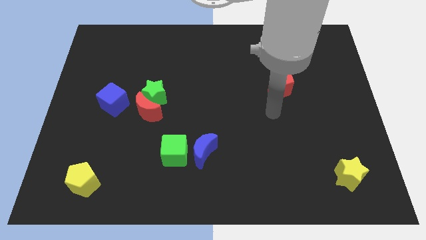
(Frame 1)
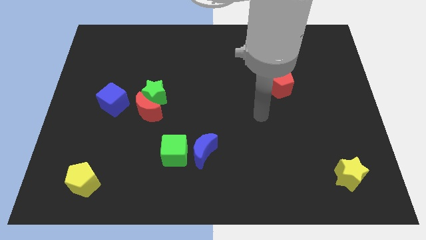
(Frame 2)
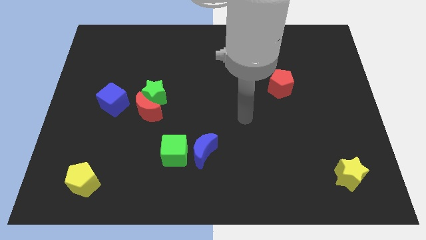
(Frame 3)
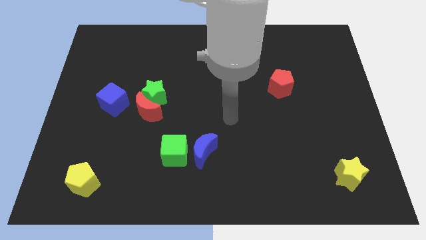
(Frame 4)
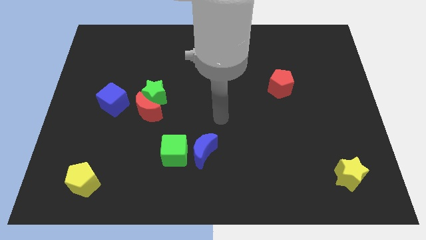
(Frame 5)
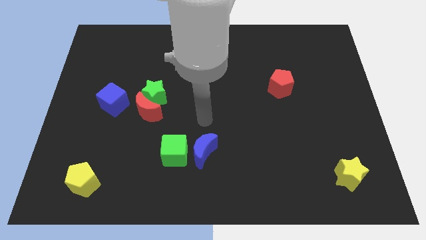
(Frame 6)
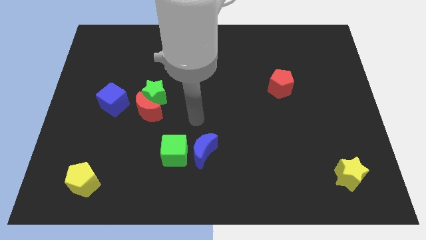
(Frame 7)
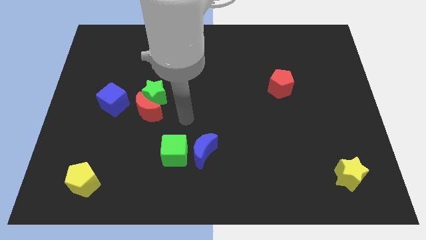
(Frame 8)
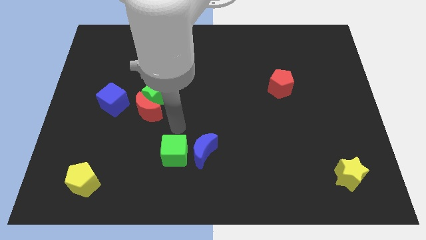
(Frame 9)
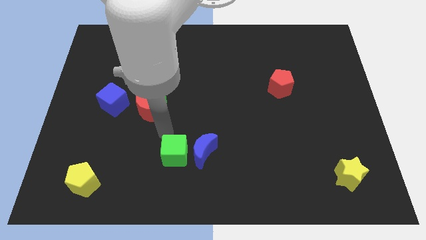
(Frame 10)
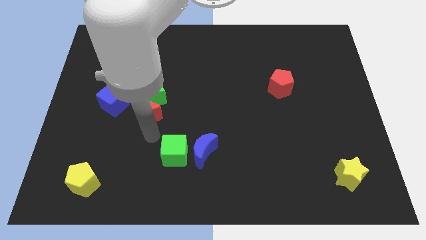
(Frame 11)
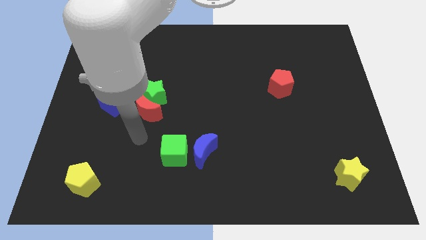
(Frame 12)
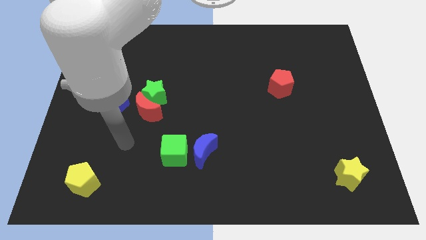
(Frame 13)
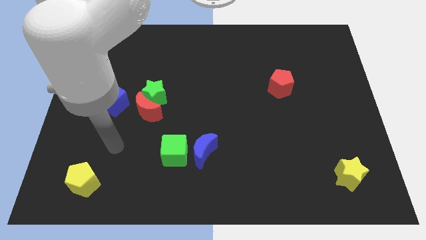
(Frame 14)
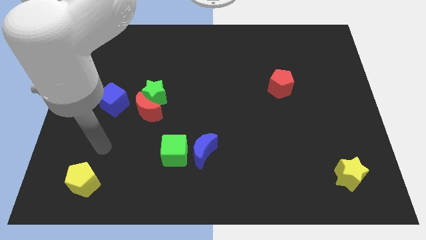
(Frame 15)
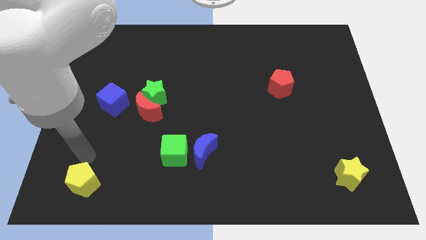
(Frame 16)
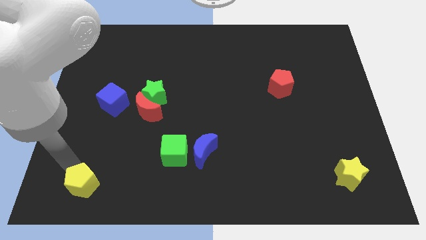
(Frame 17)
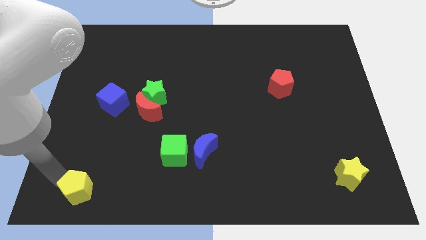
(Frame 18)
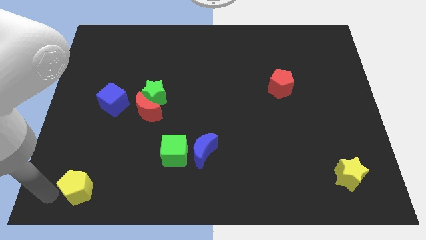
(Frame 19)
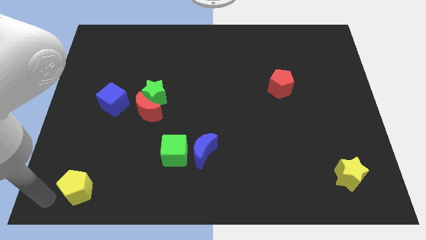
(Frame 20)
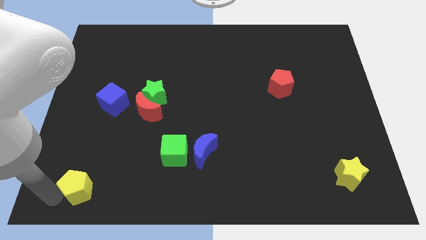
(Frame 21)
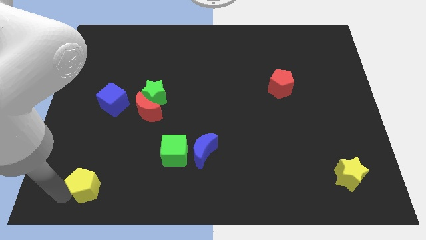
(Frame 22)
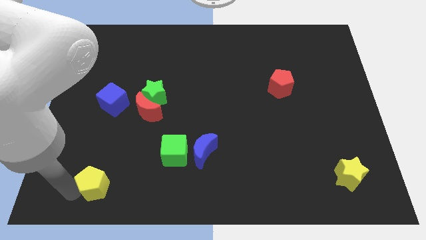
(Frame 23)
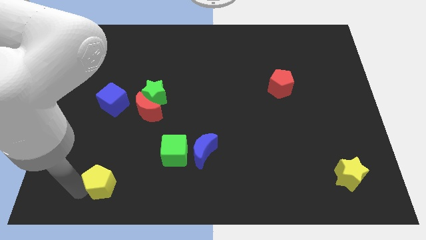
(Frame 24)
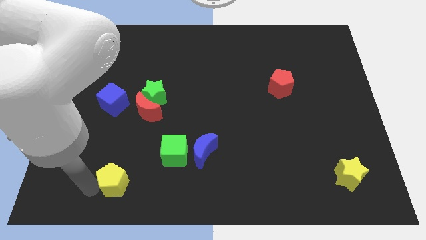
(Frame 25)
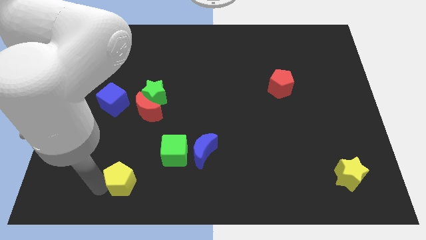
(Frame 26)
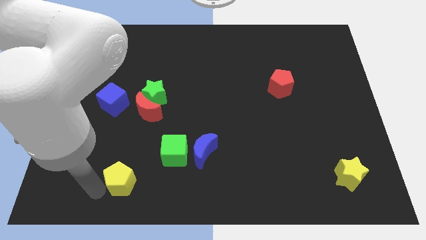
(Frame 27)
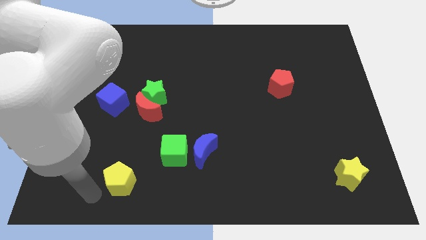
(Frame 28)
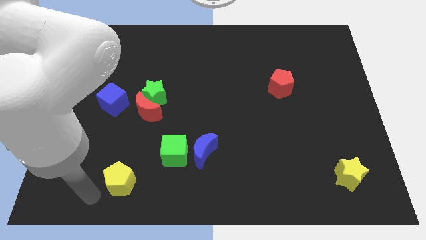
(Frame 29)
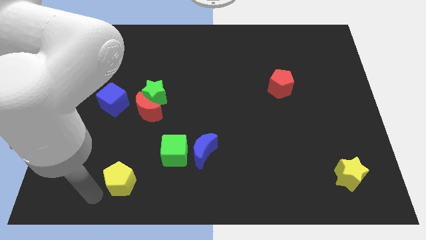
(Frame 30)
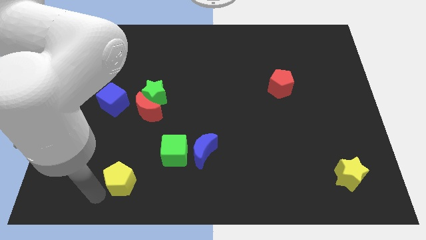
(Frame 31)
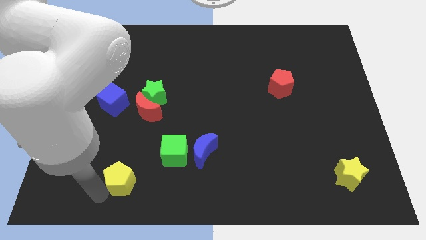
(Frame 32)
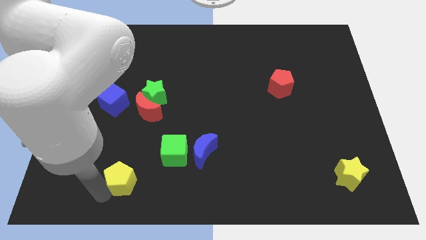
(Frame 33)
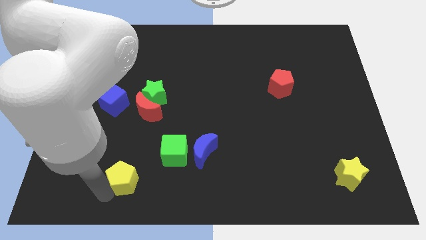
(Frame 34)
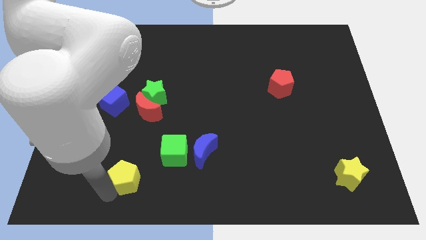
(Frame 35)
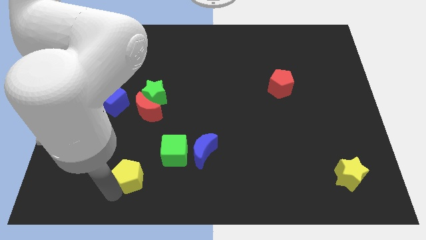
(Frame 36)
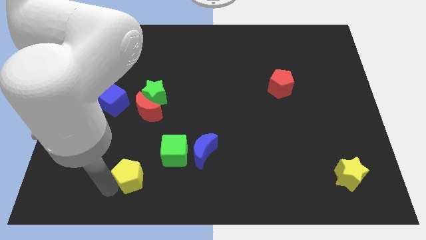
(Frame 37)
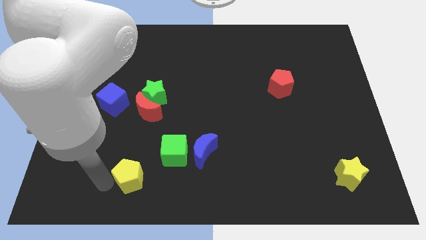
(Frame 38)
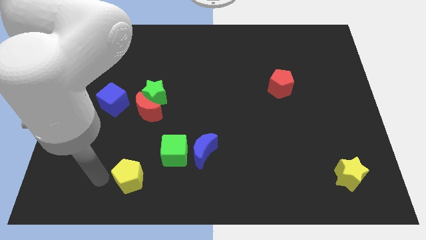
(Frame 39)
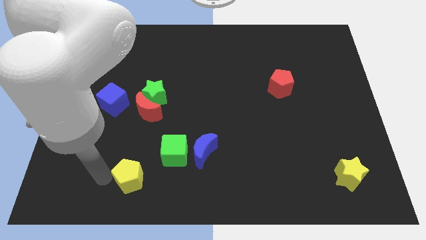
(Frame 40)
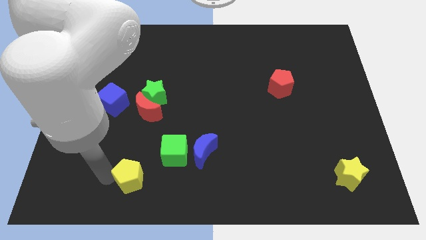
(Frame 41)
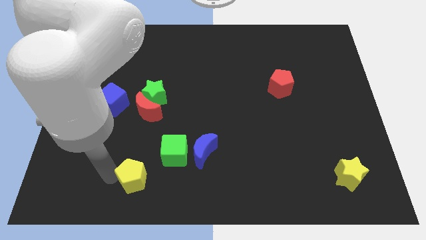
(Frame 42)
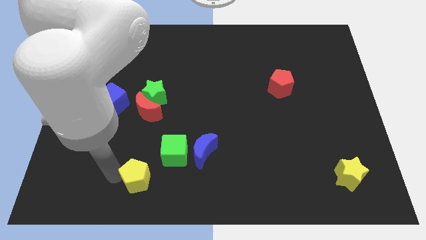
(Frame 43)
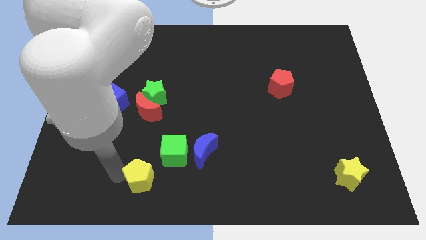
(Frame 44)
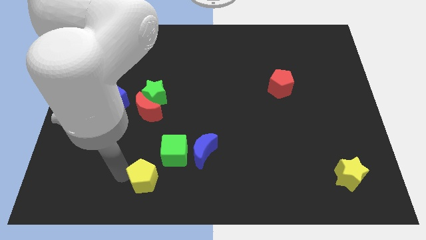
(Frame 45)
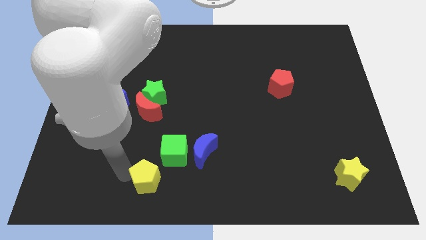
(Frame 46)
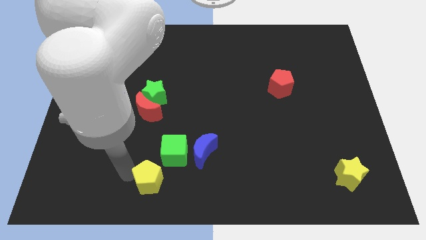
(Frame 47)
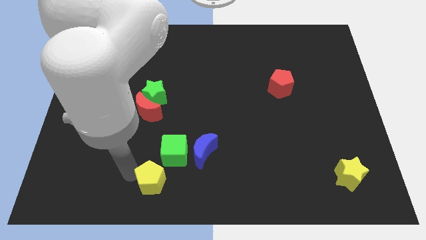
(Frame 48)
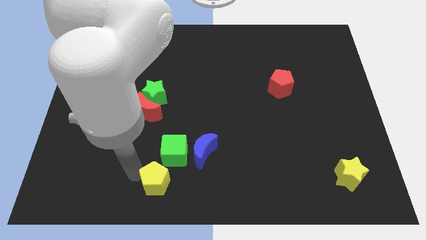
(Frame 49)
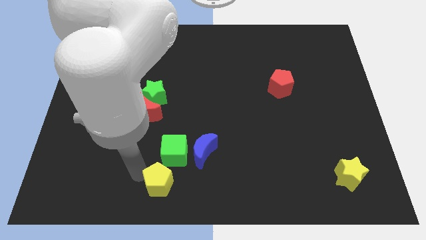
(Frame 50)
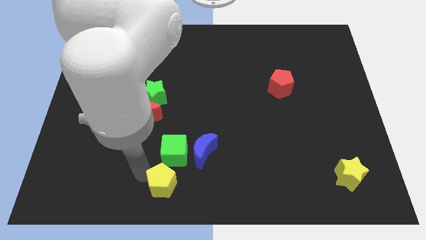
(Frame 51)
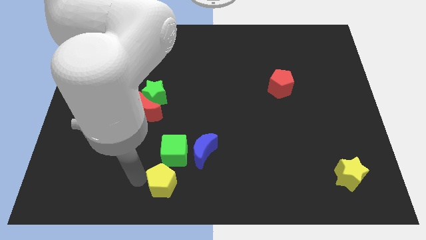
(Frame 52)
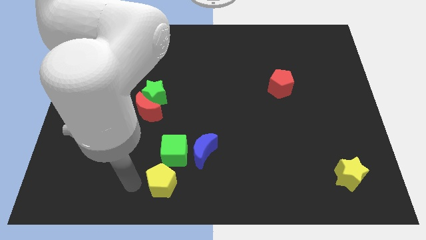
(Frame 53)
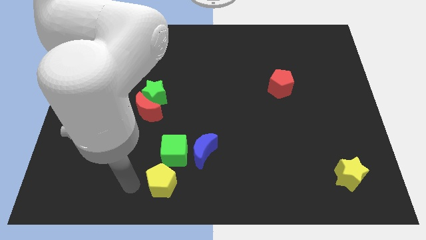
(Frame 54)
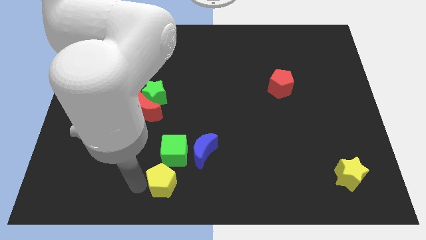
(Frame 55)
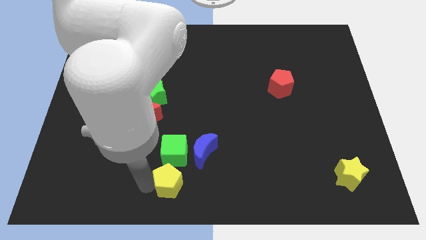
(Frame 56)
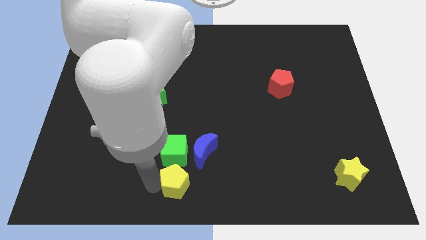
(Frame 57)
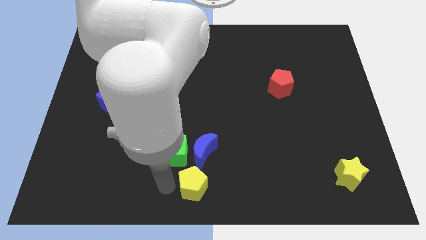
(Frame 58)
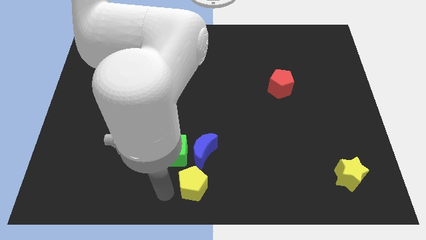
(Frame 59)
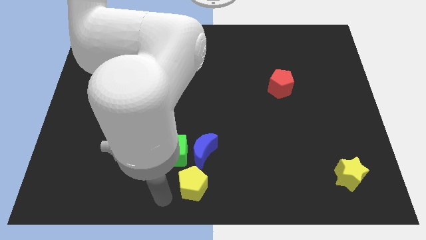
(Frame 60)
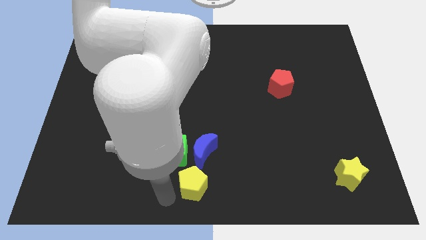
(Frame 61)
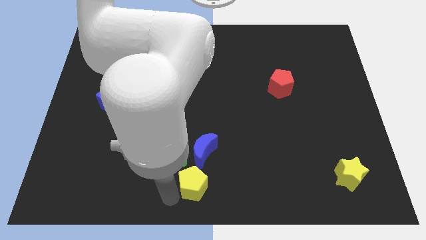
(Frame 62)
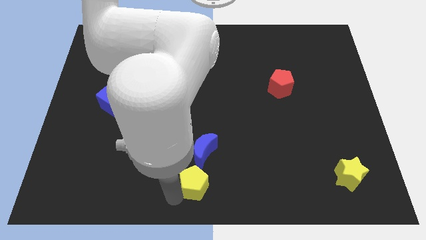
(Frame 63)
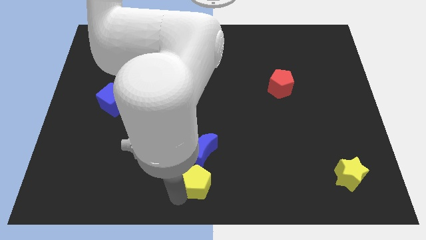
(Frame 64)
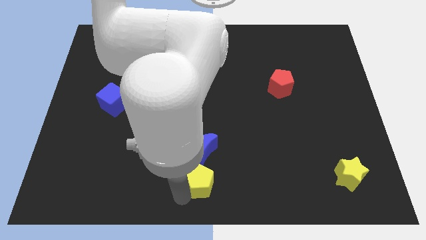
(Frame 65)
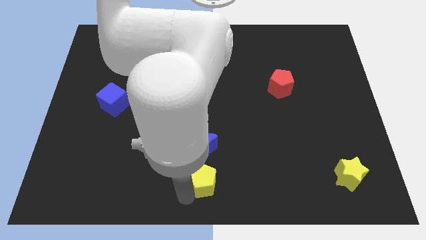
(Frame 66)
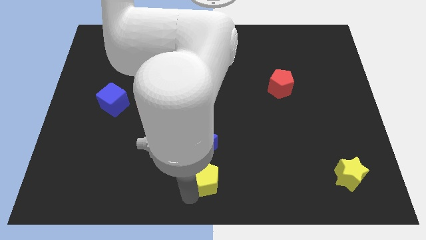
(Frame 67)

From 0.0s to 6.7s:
push the yellow pentagon diagonally down and to the right of the blue moon

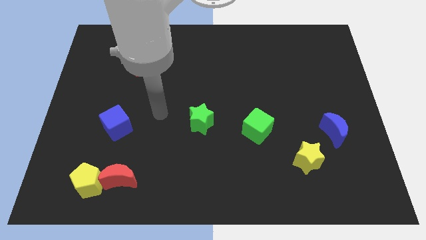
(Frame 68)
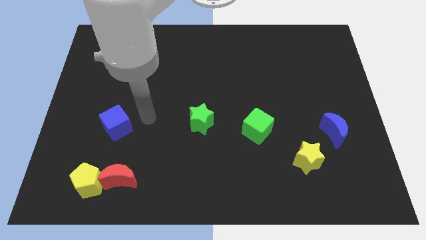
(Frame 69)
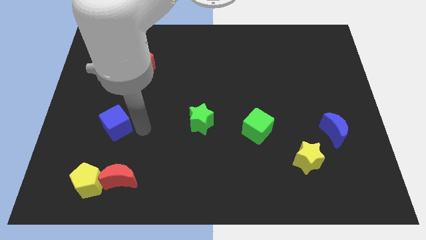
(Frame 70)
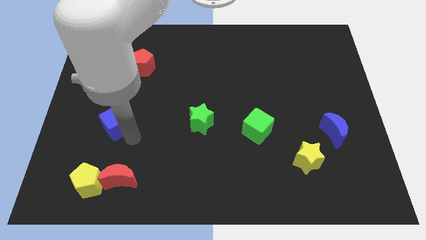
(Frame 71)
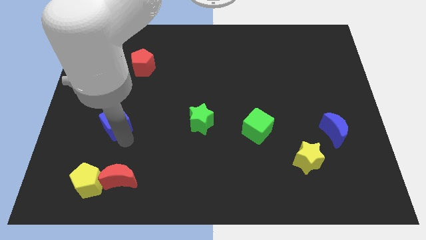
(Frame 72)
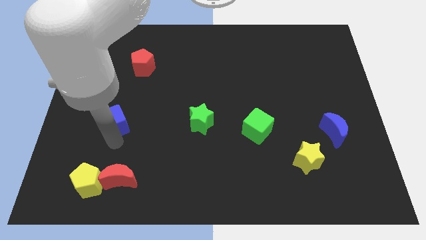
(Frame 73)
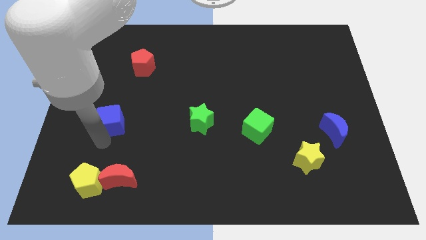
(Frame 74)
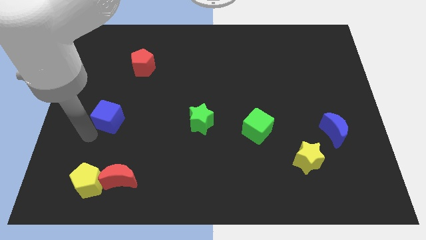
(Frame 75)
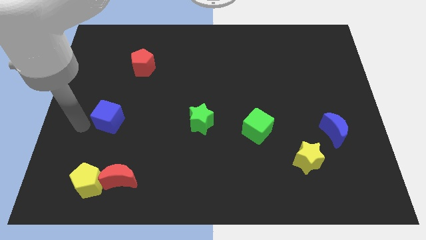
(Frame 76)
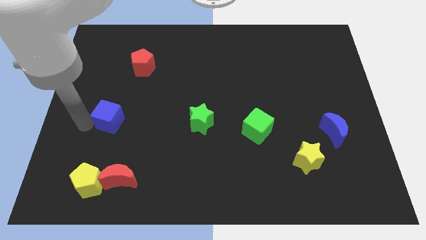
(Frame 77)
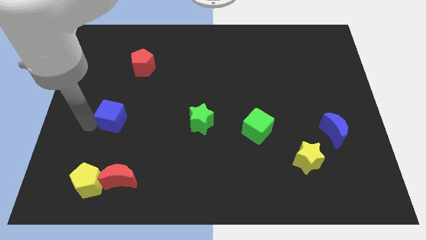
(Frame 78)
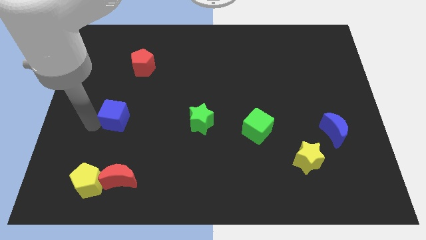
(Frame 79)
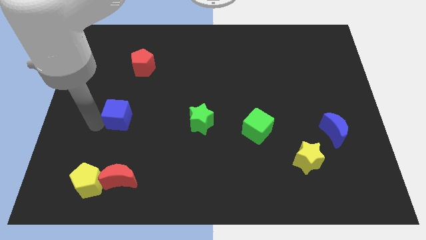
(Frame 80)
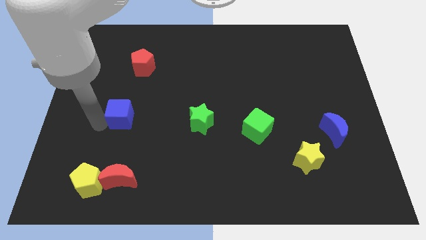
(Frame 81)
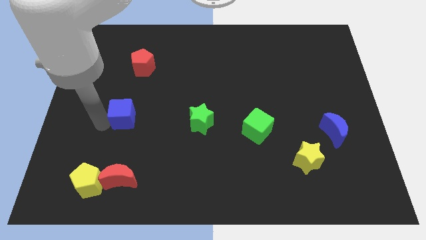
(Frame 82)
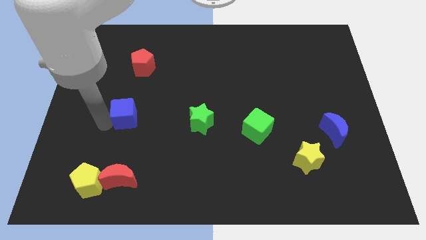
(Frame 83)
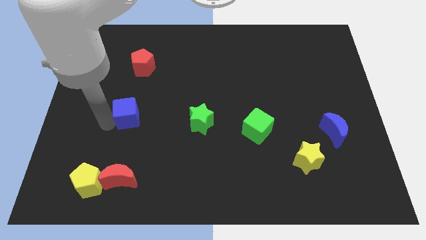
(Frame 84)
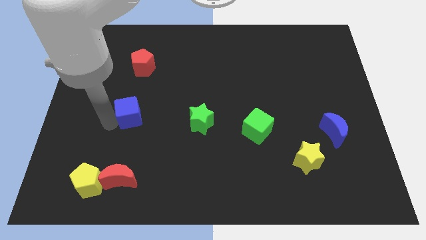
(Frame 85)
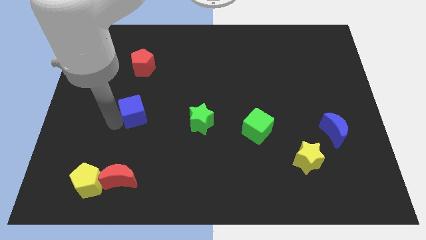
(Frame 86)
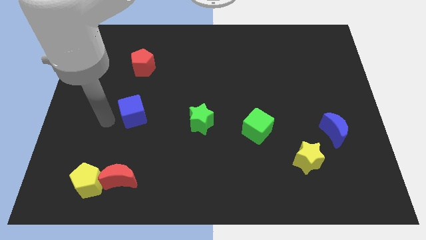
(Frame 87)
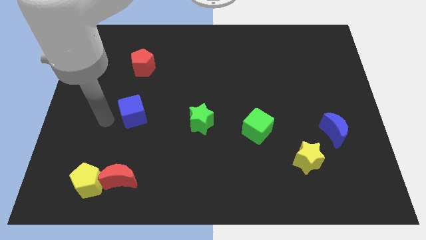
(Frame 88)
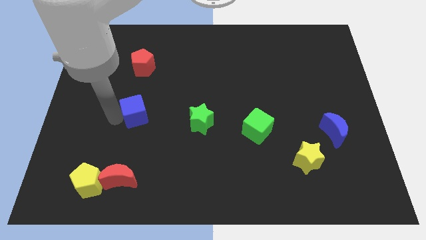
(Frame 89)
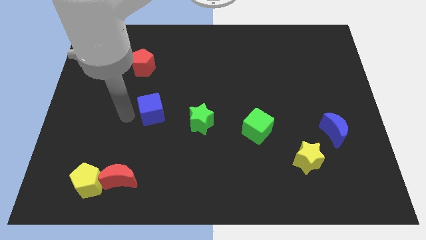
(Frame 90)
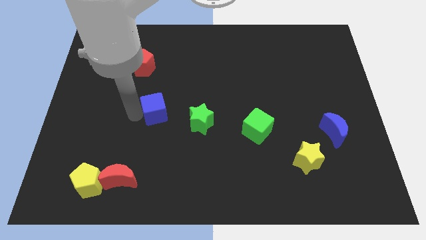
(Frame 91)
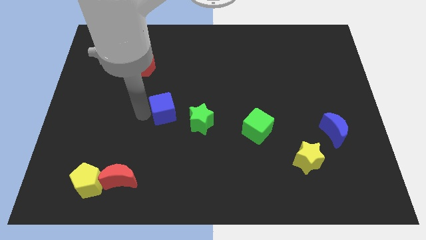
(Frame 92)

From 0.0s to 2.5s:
push the blue cube diagonally up and to the left of the green star
